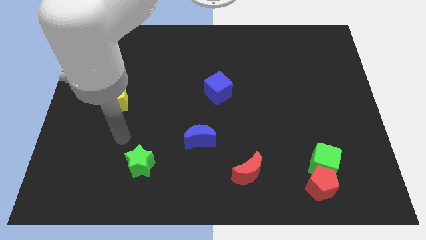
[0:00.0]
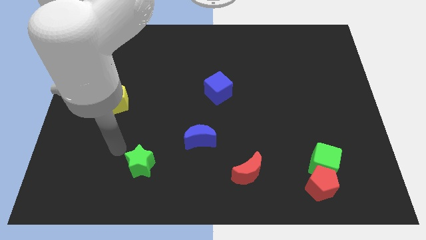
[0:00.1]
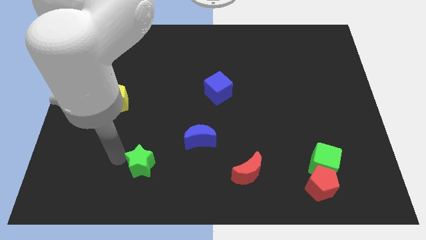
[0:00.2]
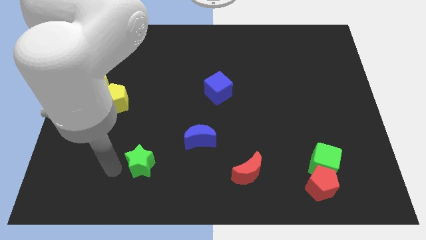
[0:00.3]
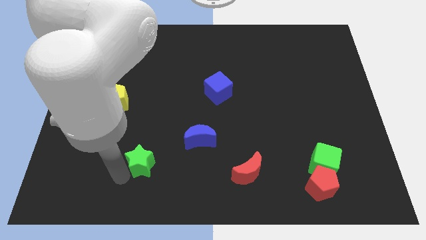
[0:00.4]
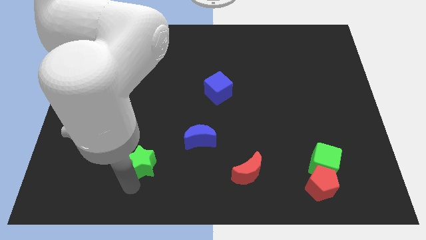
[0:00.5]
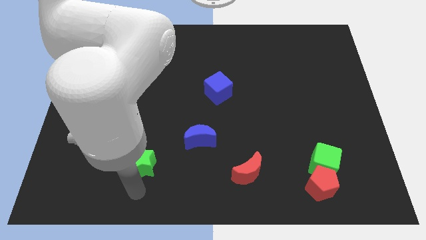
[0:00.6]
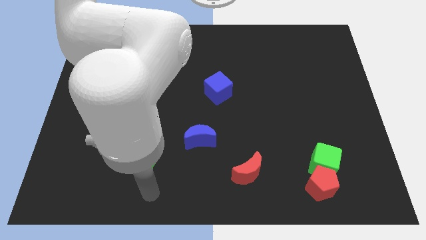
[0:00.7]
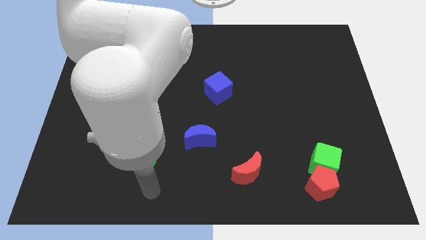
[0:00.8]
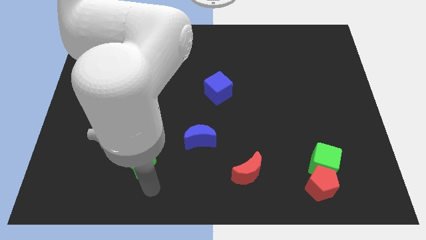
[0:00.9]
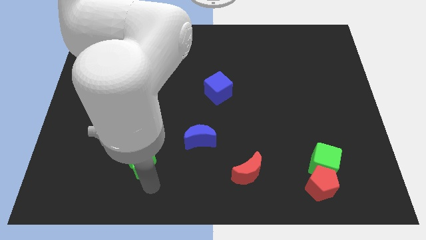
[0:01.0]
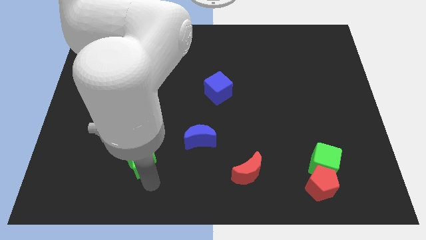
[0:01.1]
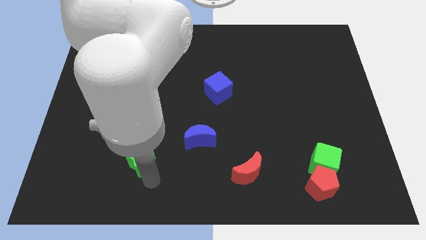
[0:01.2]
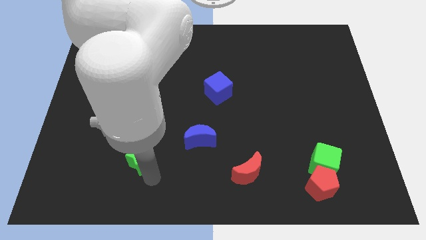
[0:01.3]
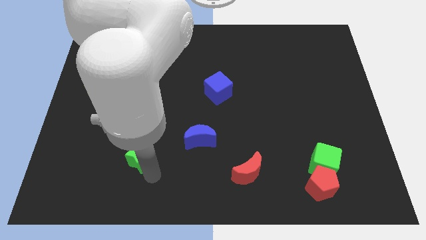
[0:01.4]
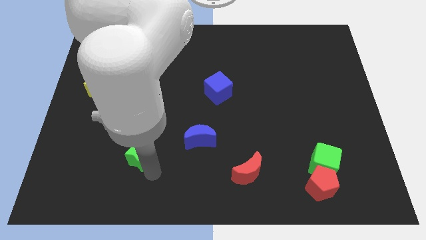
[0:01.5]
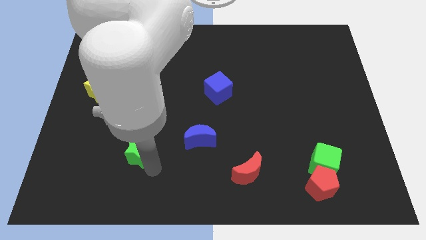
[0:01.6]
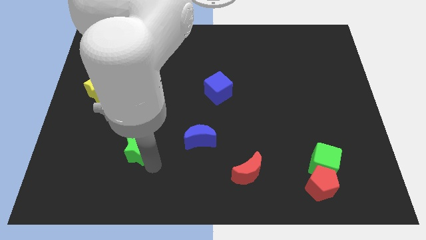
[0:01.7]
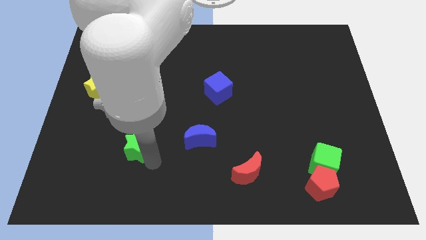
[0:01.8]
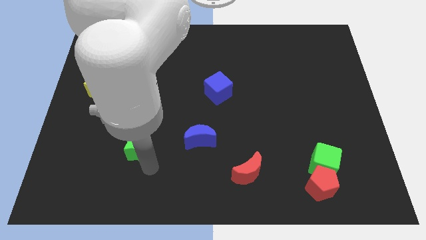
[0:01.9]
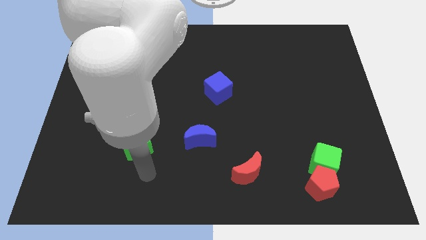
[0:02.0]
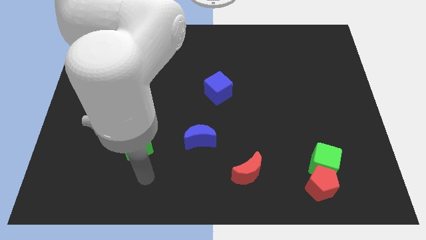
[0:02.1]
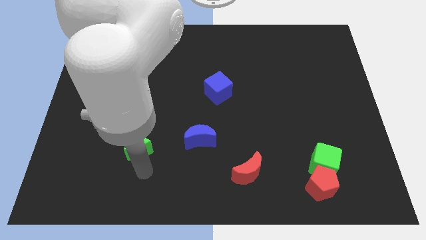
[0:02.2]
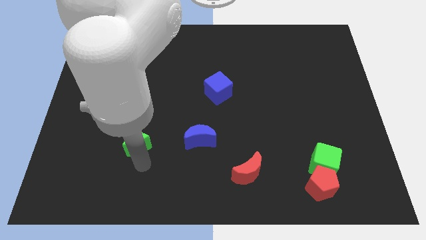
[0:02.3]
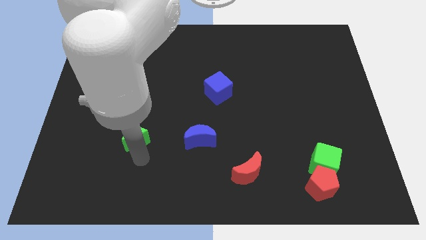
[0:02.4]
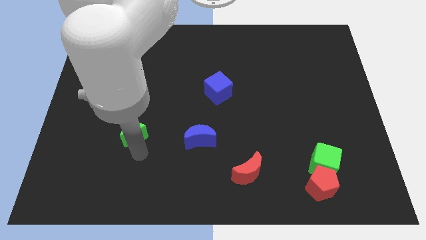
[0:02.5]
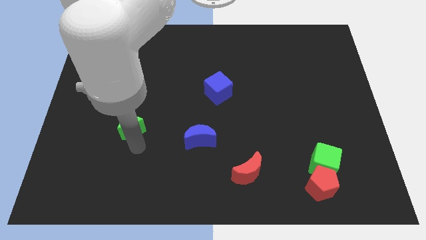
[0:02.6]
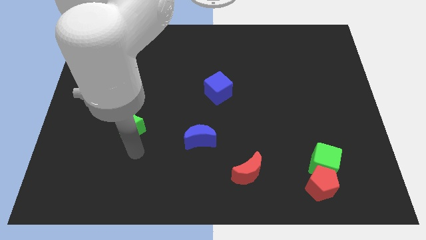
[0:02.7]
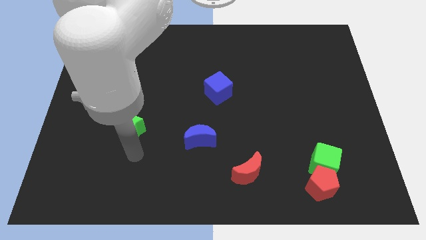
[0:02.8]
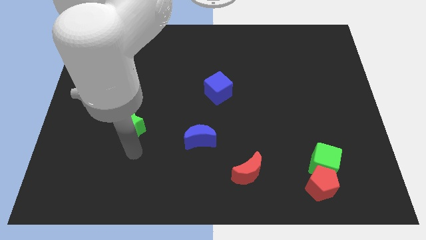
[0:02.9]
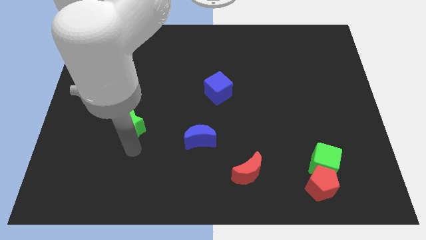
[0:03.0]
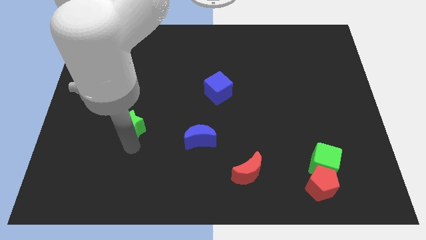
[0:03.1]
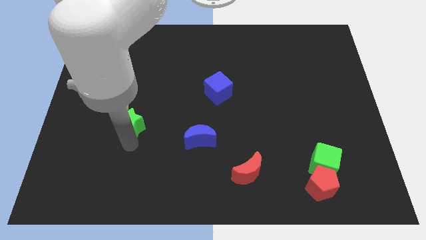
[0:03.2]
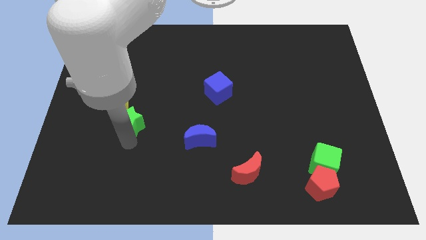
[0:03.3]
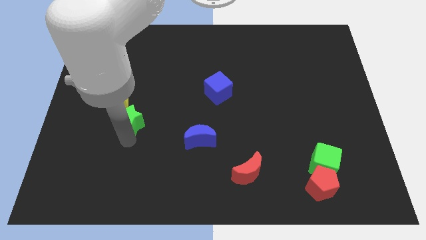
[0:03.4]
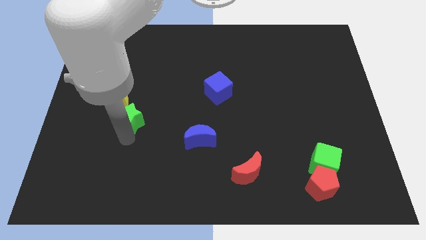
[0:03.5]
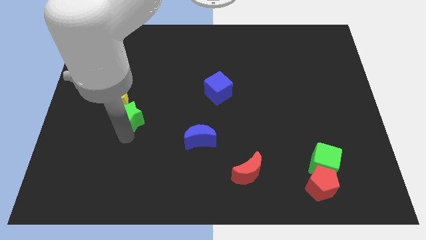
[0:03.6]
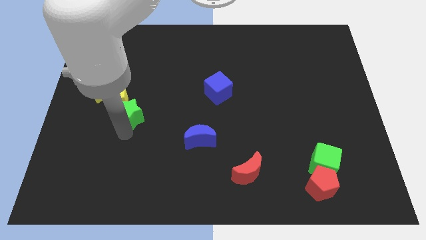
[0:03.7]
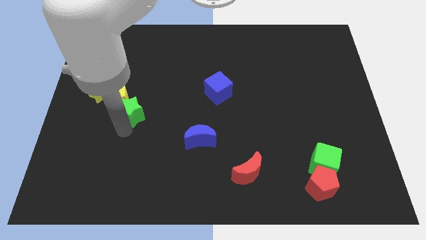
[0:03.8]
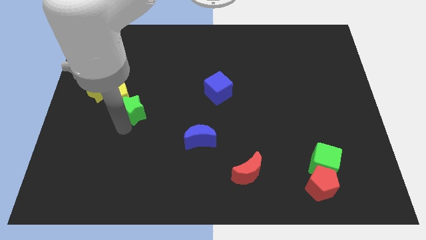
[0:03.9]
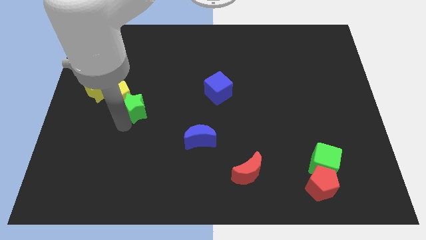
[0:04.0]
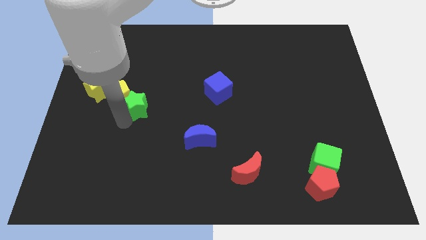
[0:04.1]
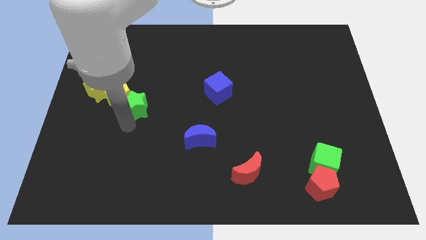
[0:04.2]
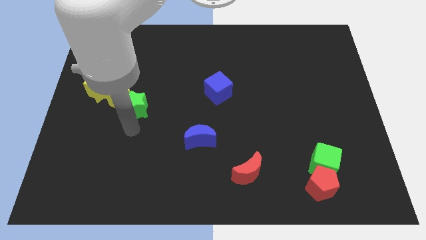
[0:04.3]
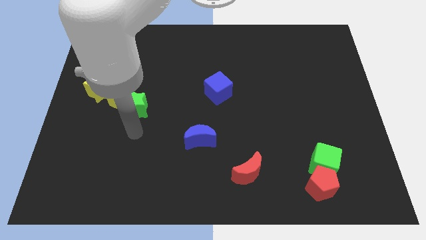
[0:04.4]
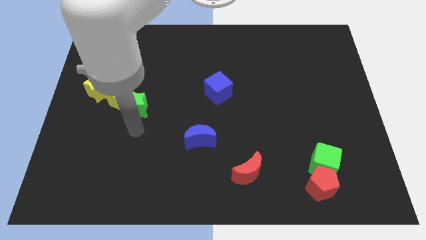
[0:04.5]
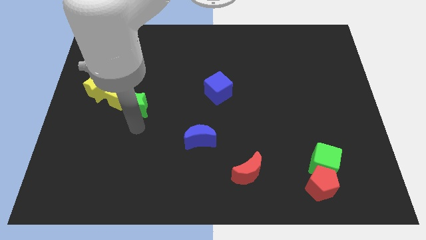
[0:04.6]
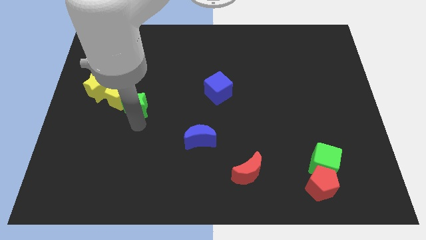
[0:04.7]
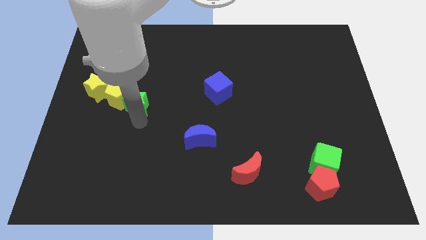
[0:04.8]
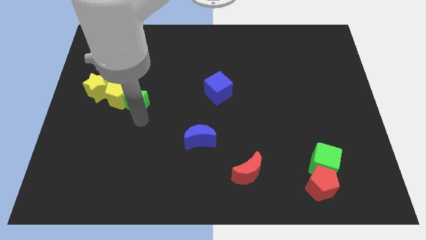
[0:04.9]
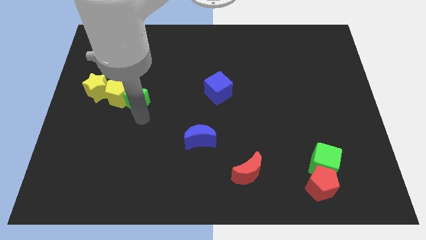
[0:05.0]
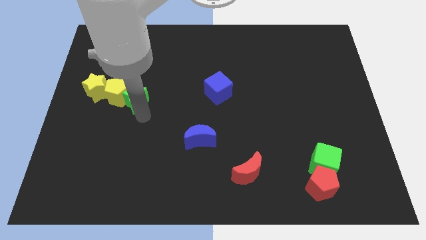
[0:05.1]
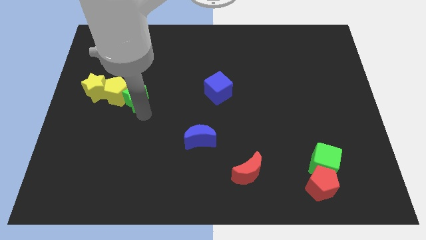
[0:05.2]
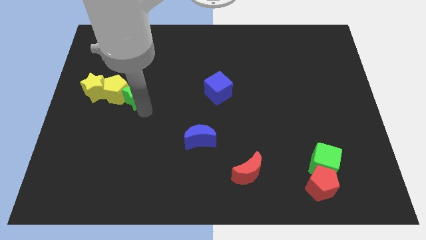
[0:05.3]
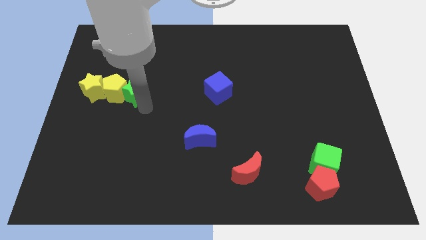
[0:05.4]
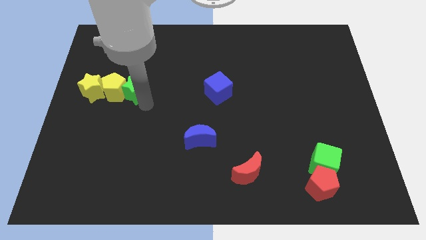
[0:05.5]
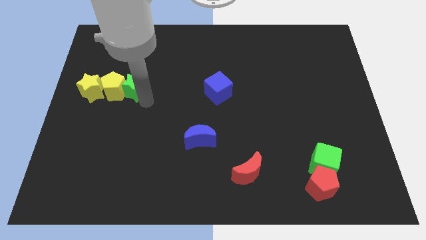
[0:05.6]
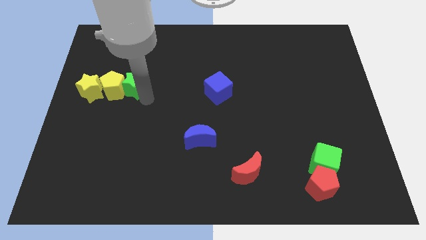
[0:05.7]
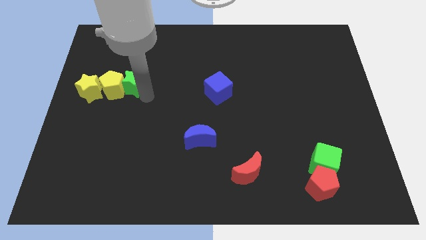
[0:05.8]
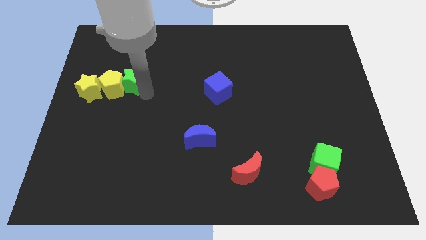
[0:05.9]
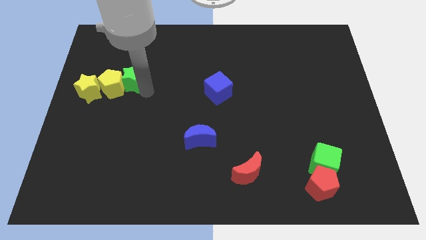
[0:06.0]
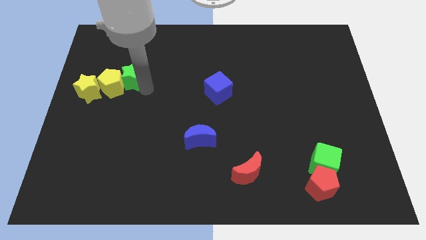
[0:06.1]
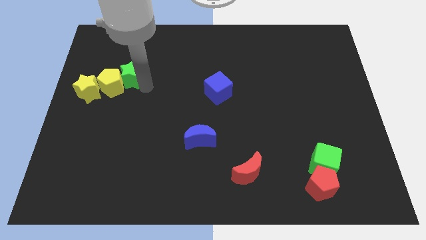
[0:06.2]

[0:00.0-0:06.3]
put the green star to the top right side of the yellow star
